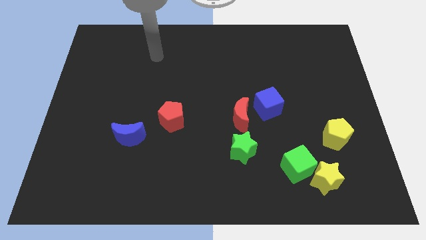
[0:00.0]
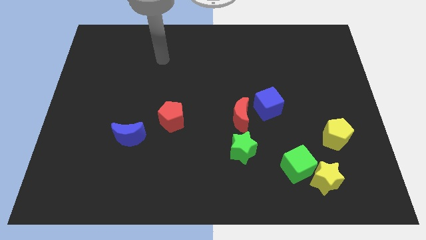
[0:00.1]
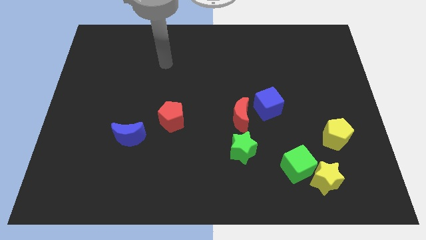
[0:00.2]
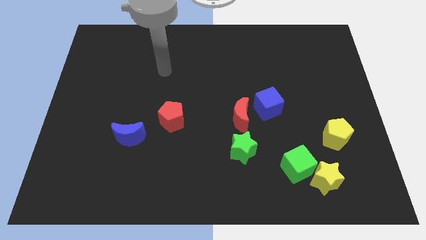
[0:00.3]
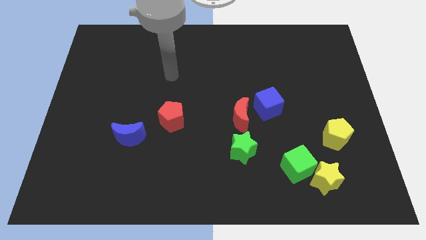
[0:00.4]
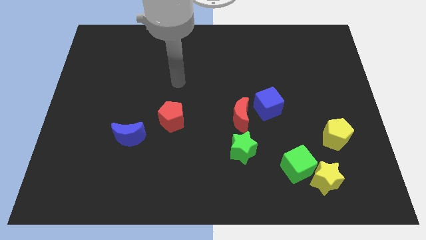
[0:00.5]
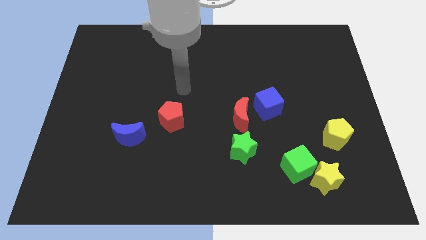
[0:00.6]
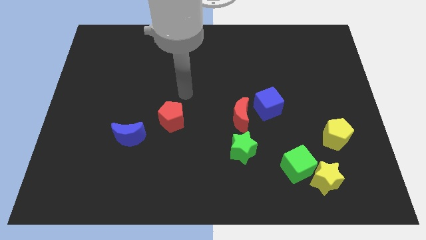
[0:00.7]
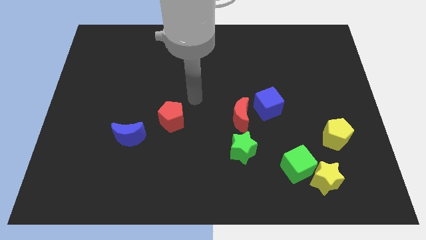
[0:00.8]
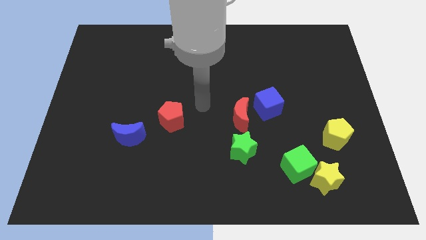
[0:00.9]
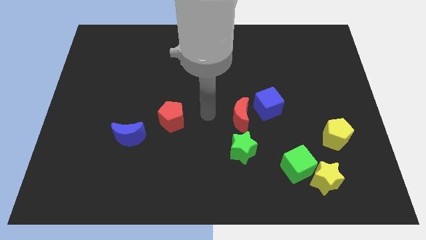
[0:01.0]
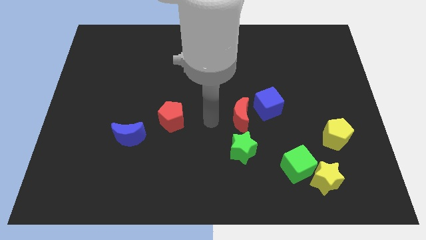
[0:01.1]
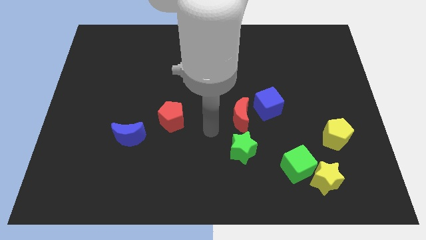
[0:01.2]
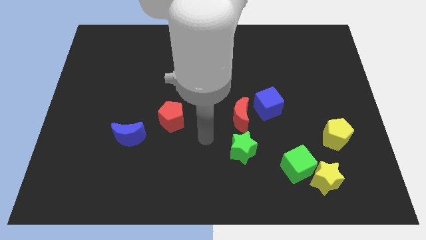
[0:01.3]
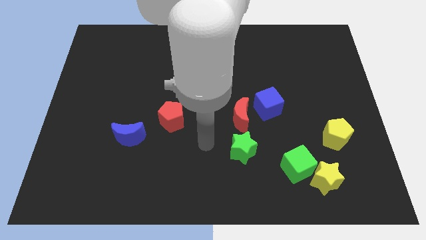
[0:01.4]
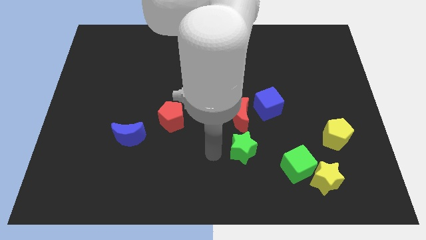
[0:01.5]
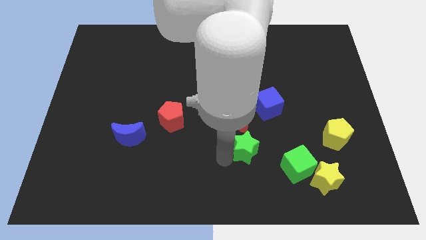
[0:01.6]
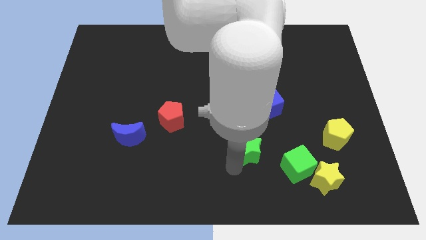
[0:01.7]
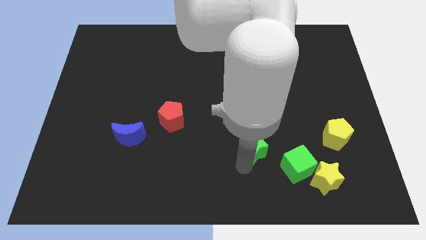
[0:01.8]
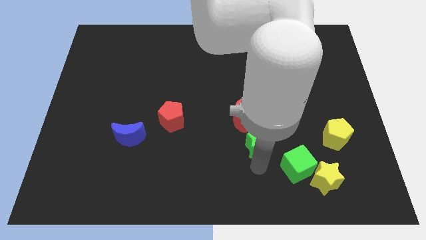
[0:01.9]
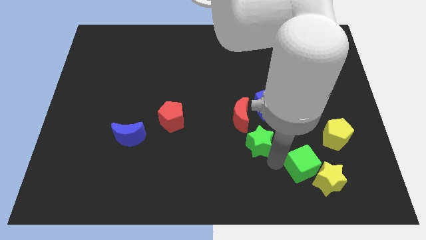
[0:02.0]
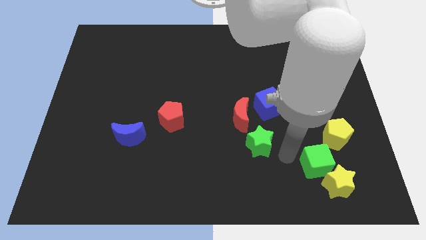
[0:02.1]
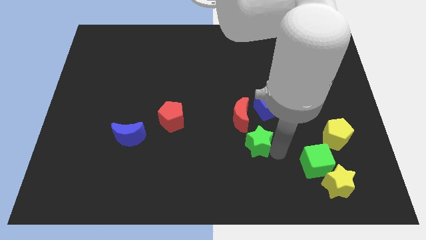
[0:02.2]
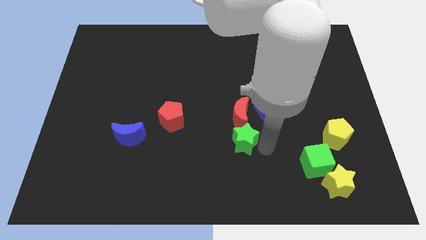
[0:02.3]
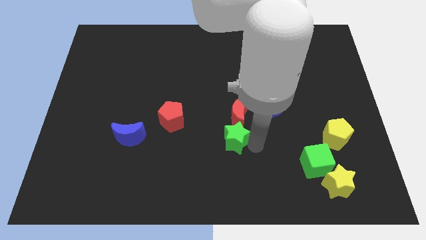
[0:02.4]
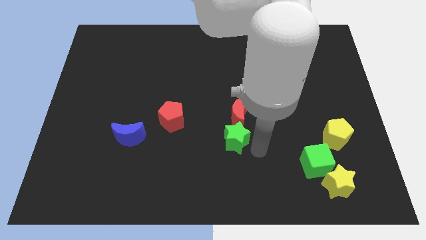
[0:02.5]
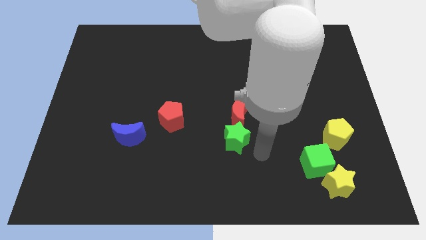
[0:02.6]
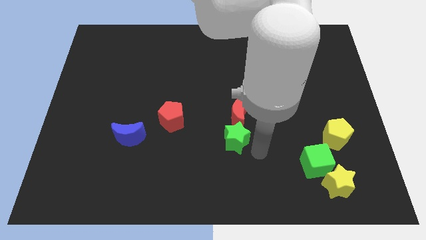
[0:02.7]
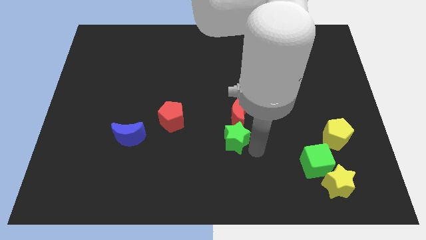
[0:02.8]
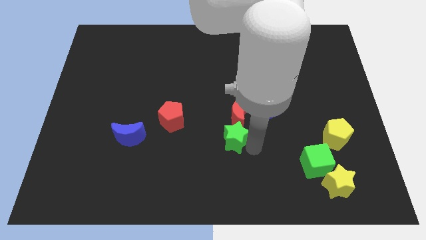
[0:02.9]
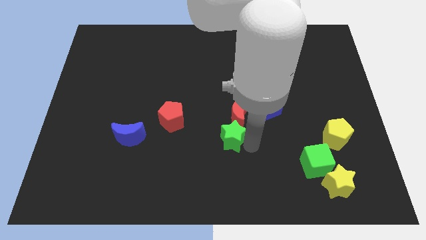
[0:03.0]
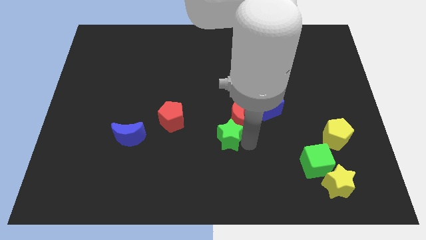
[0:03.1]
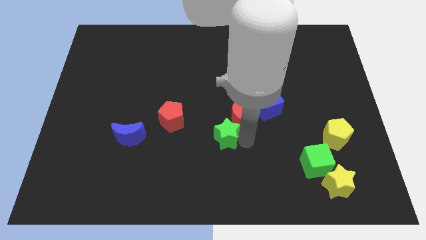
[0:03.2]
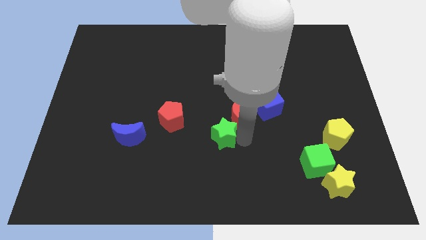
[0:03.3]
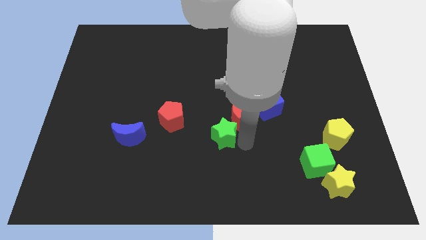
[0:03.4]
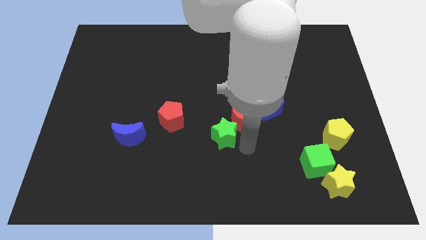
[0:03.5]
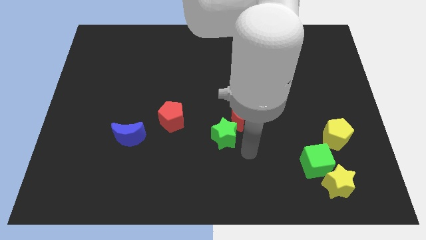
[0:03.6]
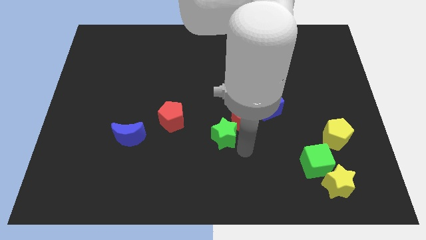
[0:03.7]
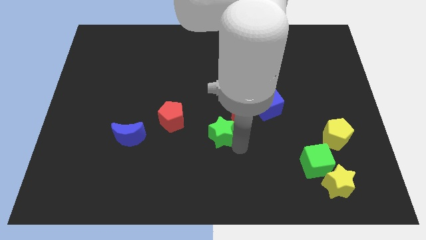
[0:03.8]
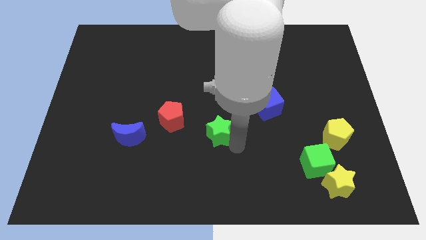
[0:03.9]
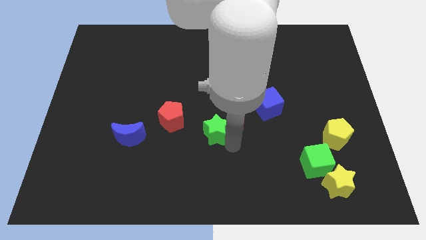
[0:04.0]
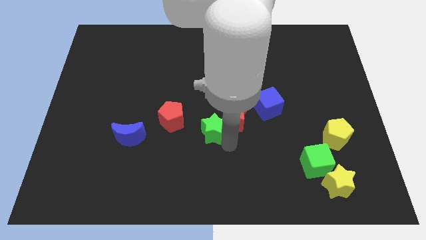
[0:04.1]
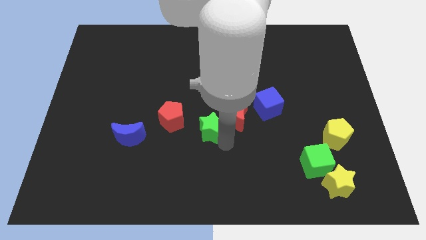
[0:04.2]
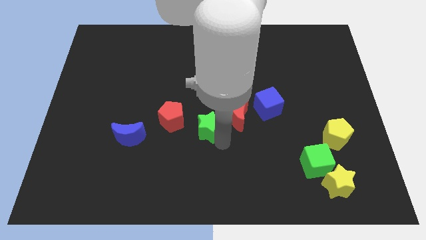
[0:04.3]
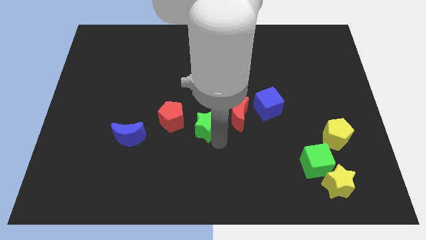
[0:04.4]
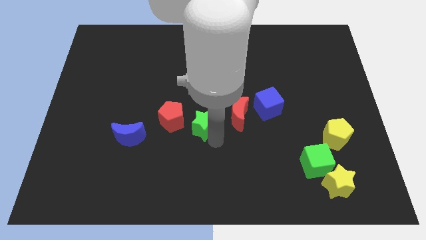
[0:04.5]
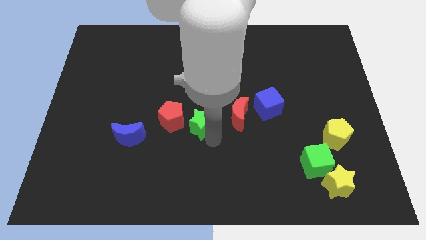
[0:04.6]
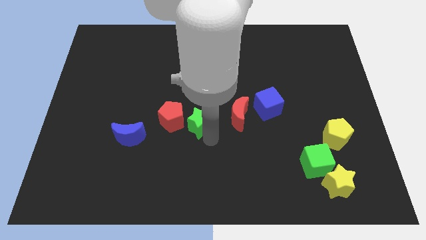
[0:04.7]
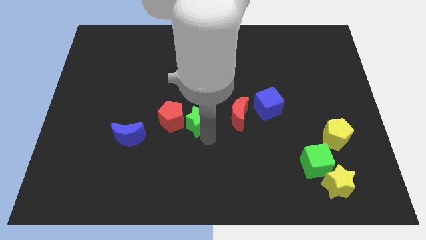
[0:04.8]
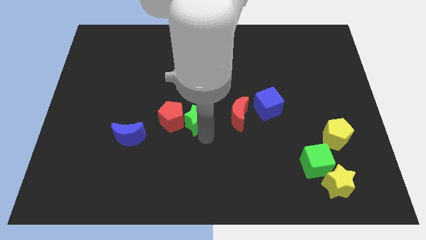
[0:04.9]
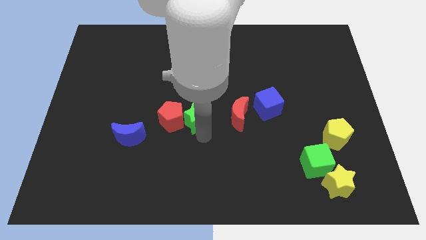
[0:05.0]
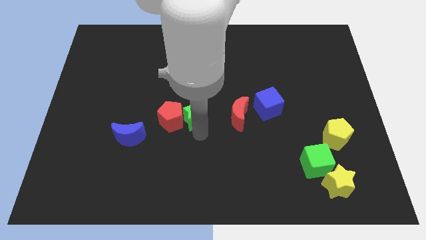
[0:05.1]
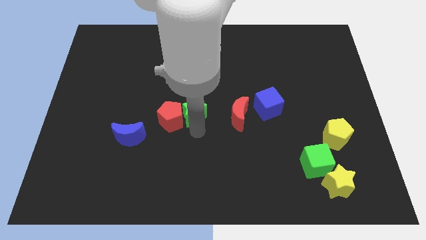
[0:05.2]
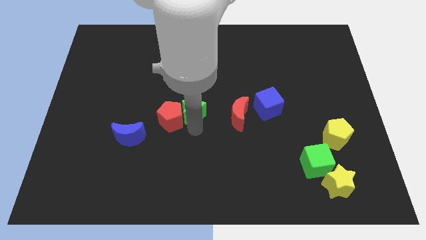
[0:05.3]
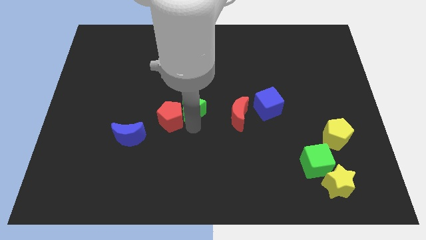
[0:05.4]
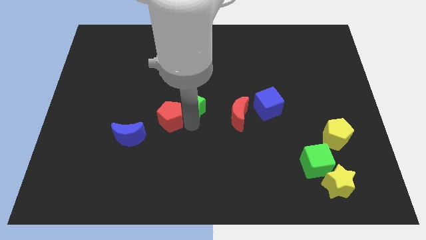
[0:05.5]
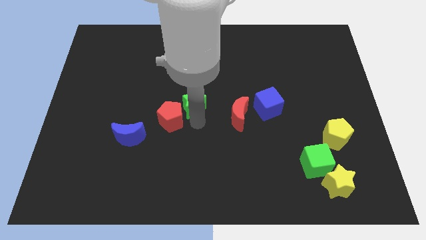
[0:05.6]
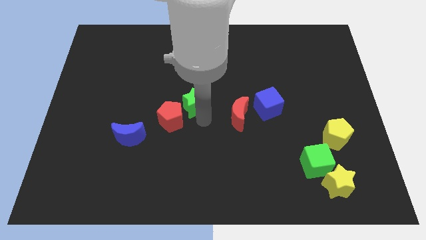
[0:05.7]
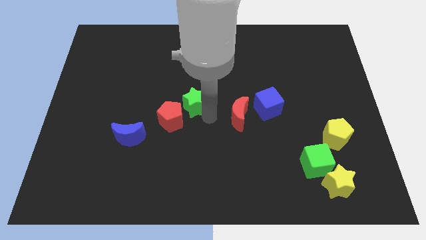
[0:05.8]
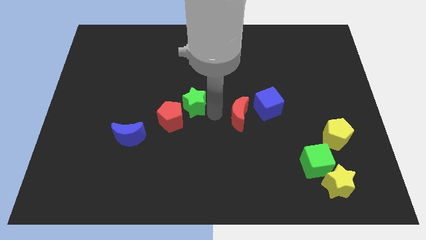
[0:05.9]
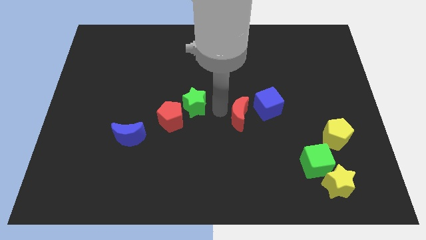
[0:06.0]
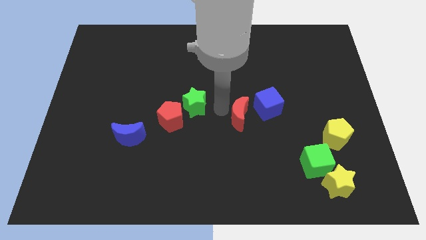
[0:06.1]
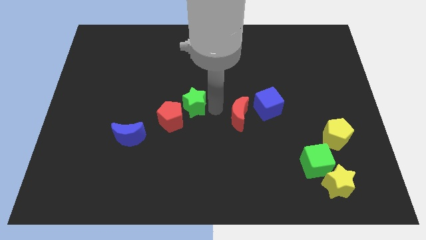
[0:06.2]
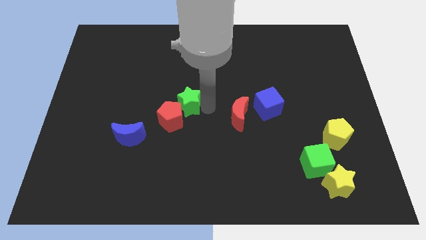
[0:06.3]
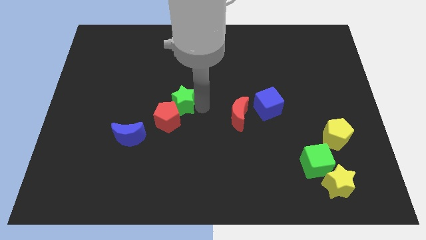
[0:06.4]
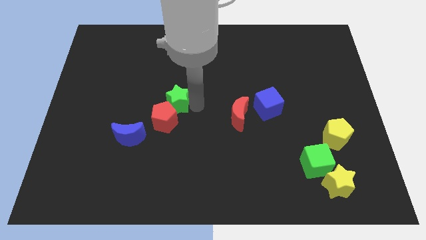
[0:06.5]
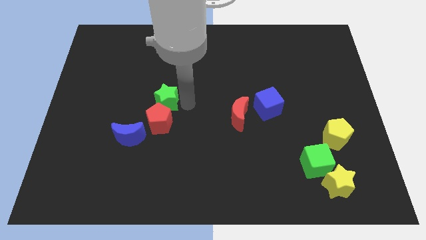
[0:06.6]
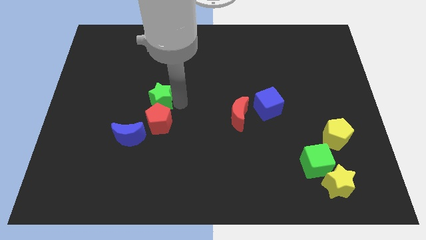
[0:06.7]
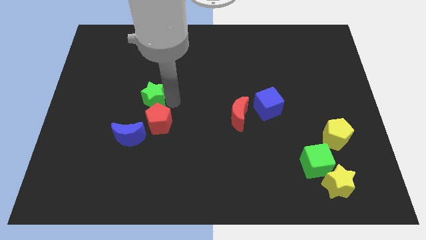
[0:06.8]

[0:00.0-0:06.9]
slide the green star to the top side of the blue moon

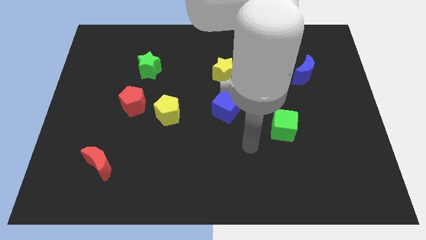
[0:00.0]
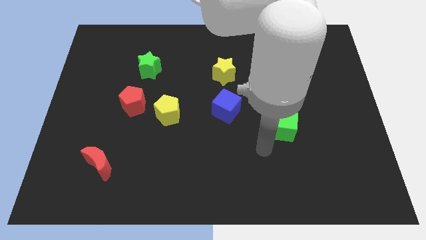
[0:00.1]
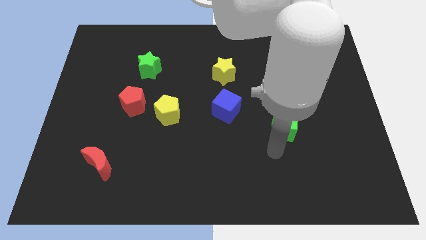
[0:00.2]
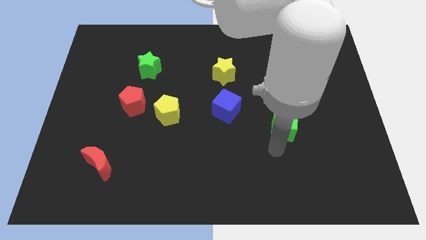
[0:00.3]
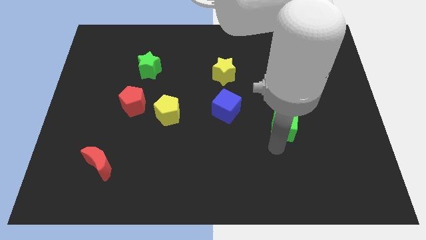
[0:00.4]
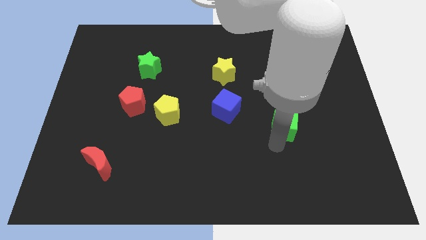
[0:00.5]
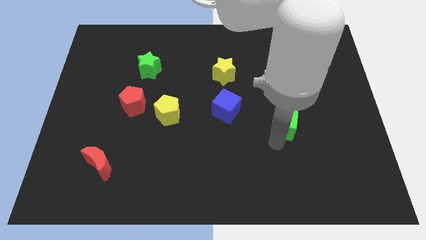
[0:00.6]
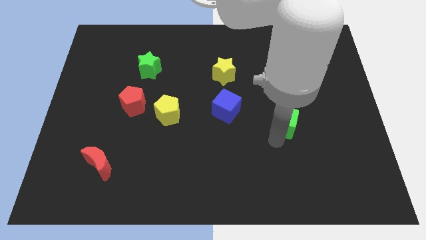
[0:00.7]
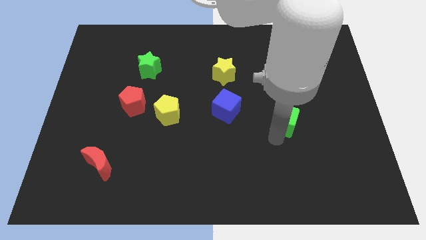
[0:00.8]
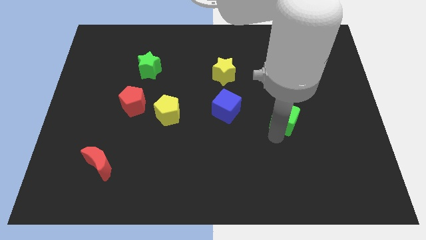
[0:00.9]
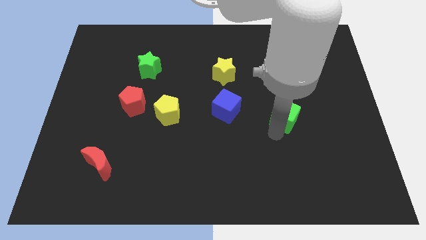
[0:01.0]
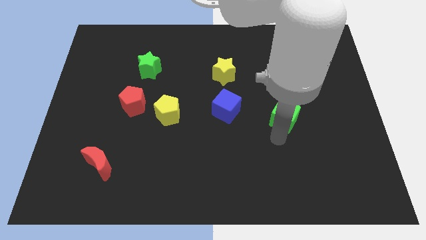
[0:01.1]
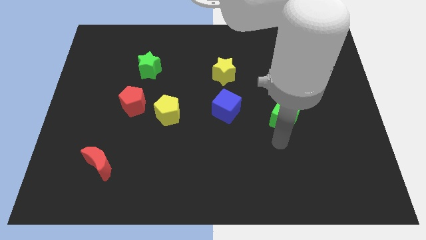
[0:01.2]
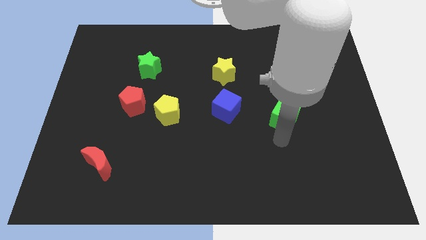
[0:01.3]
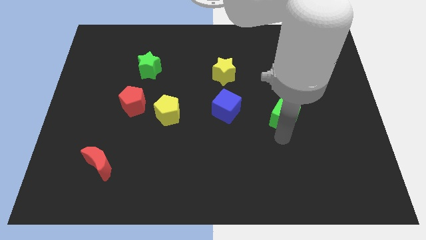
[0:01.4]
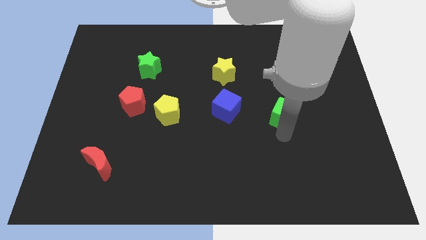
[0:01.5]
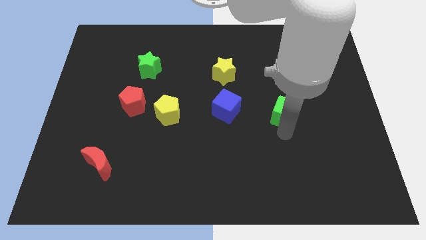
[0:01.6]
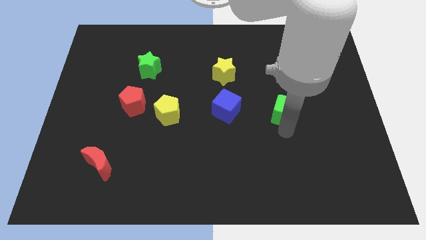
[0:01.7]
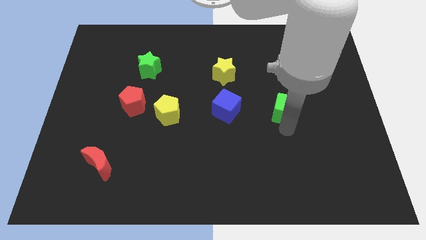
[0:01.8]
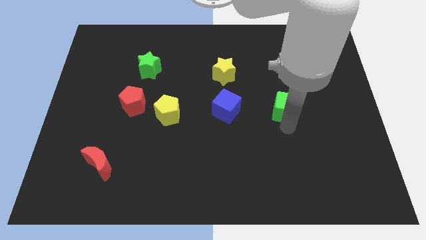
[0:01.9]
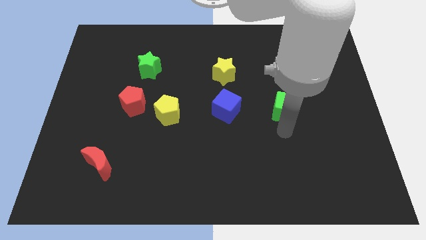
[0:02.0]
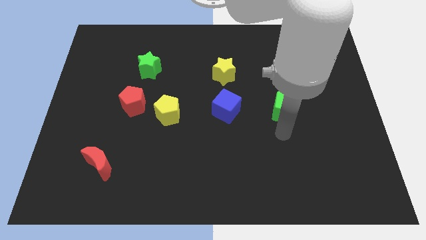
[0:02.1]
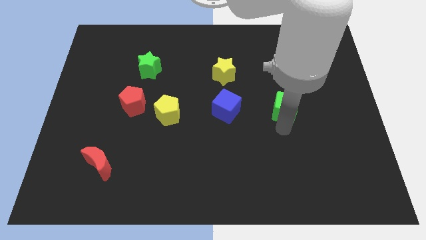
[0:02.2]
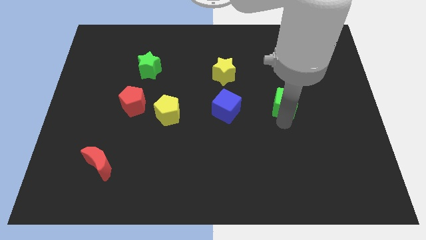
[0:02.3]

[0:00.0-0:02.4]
move the green cube to the bottom left of the blue moon
